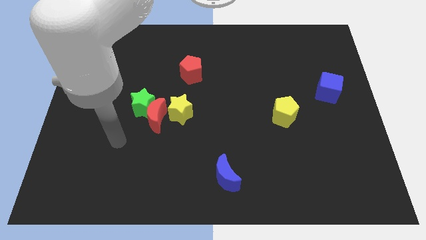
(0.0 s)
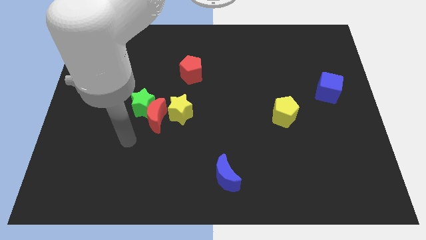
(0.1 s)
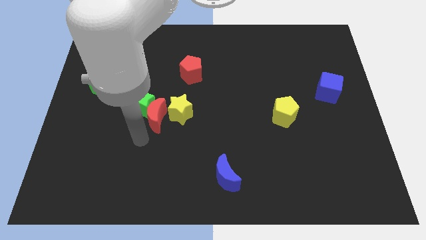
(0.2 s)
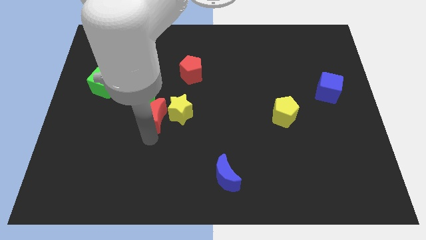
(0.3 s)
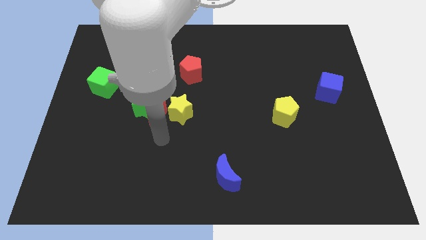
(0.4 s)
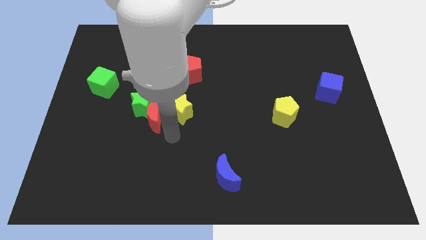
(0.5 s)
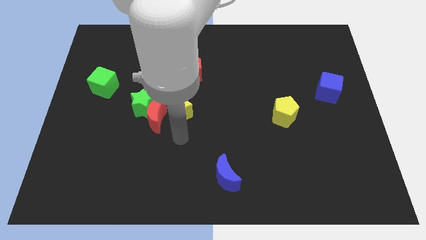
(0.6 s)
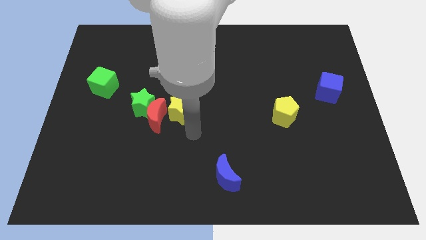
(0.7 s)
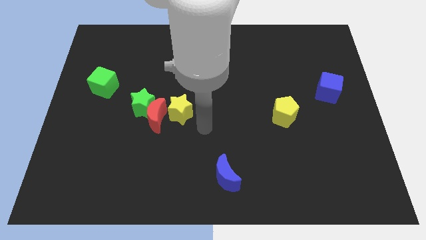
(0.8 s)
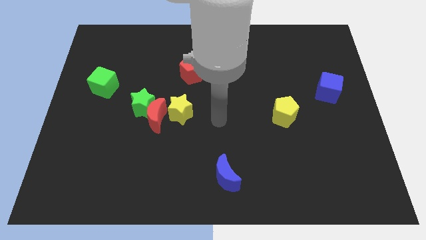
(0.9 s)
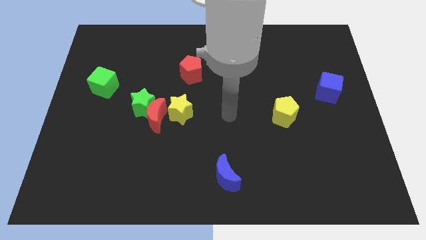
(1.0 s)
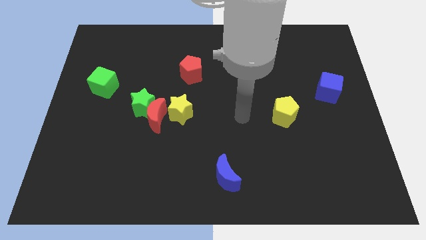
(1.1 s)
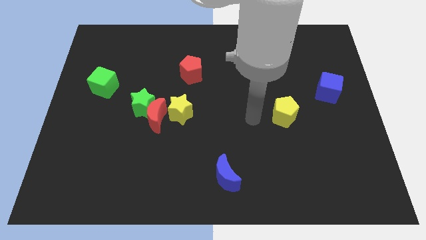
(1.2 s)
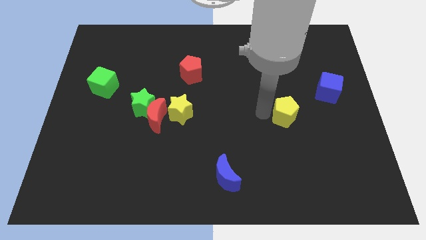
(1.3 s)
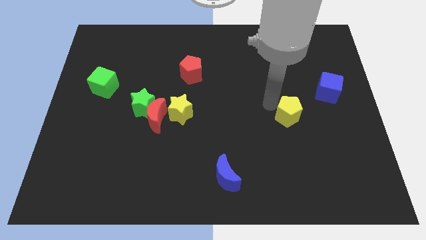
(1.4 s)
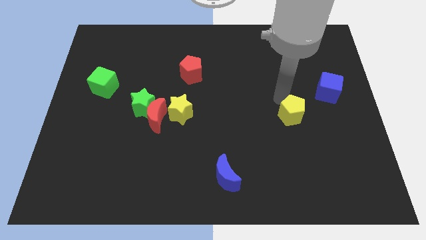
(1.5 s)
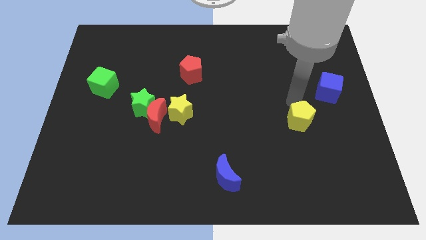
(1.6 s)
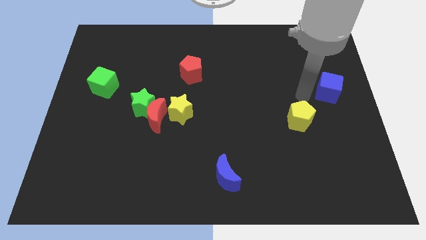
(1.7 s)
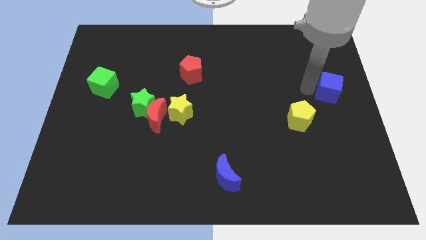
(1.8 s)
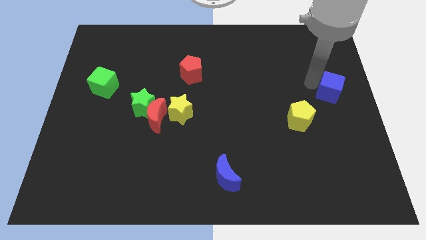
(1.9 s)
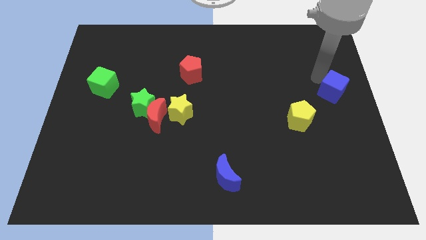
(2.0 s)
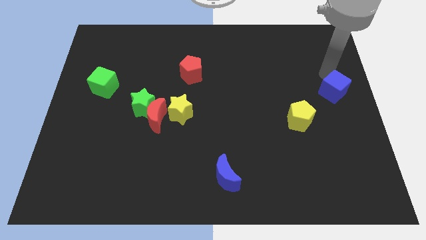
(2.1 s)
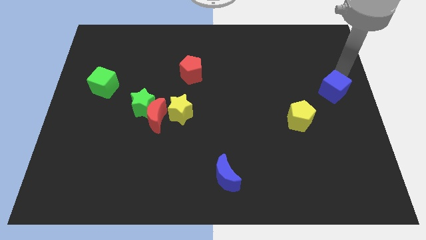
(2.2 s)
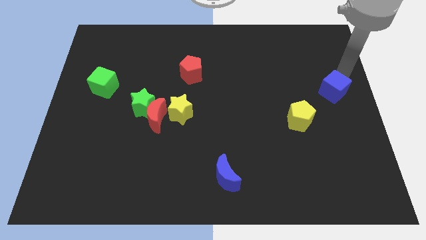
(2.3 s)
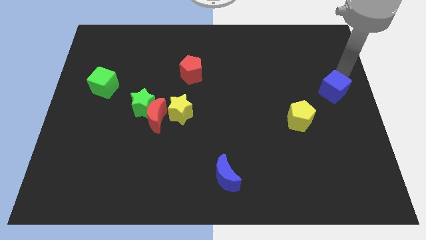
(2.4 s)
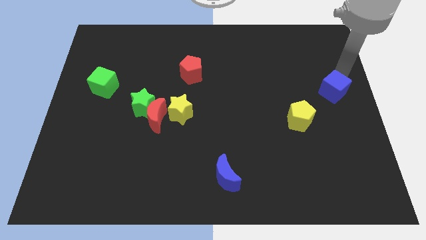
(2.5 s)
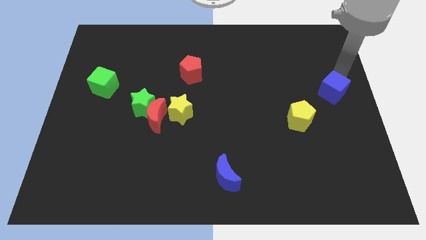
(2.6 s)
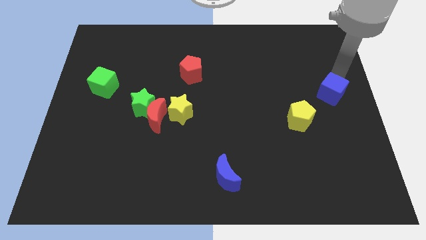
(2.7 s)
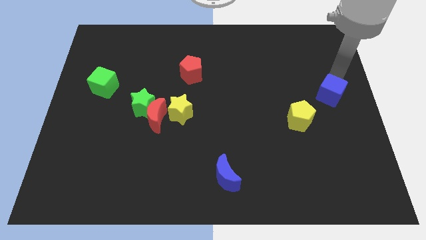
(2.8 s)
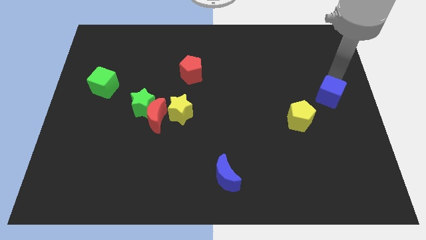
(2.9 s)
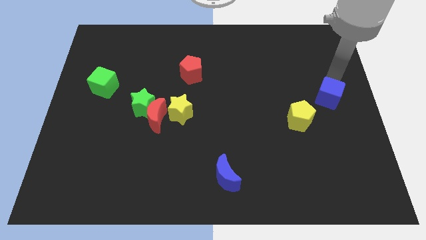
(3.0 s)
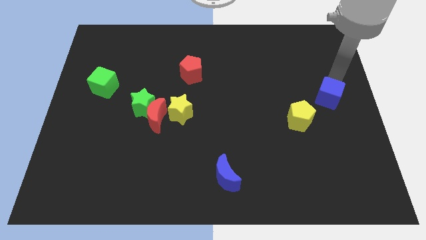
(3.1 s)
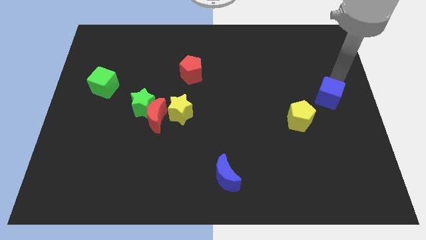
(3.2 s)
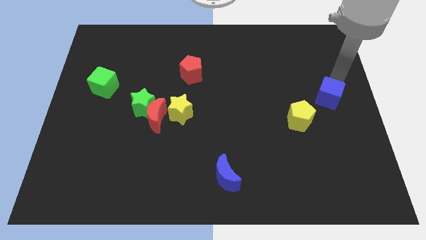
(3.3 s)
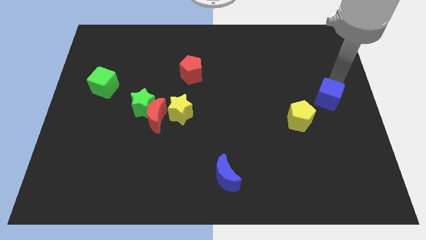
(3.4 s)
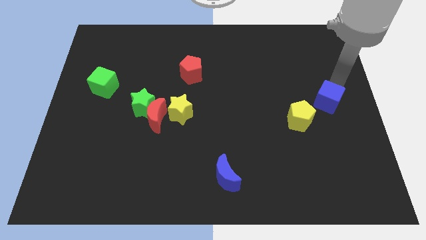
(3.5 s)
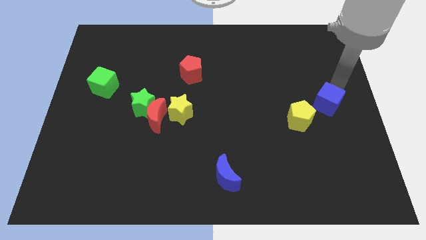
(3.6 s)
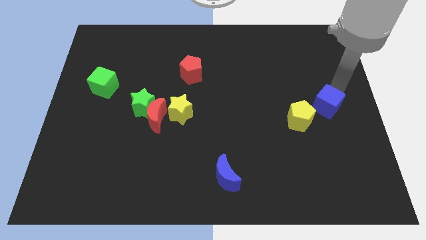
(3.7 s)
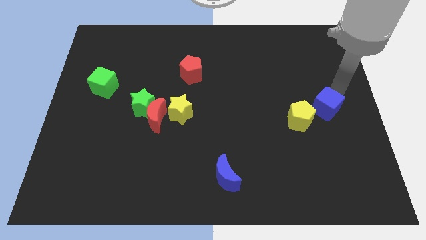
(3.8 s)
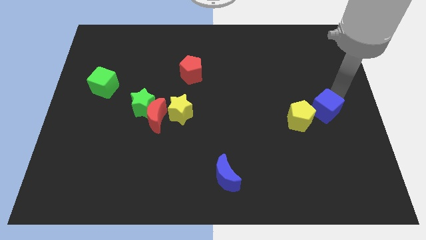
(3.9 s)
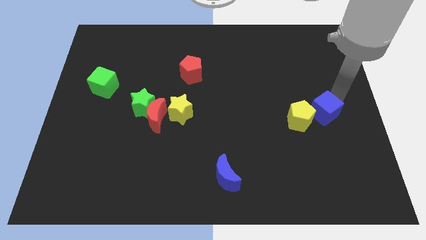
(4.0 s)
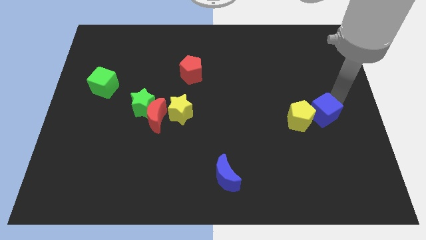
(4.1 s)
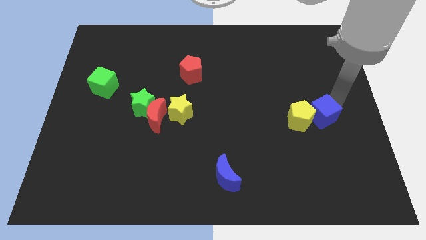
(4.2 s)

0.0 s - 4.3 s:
slightly slide the blue cube downwards and to the left

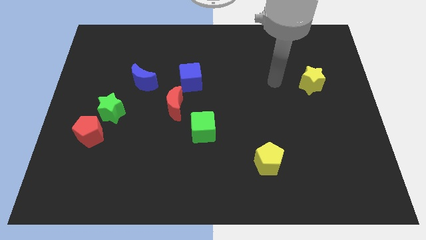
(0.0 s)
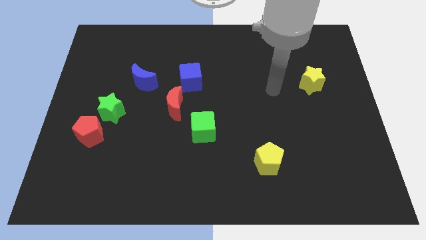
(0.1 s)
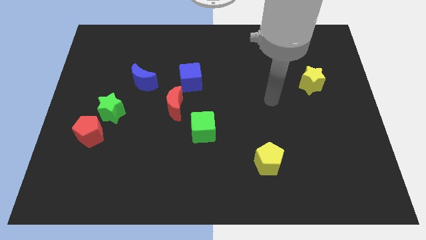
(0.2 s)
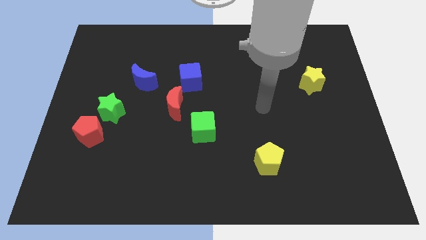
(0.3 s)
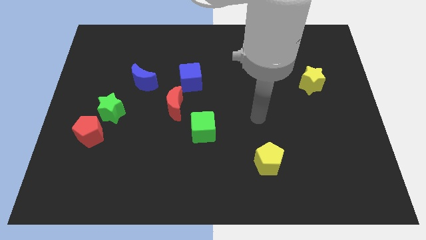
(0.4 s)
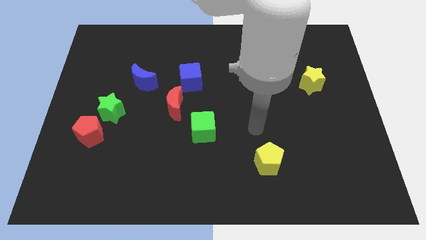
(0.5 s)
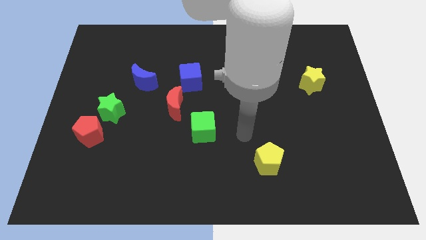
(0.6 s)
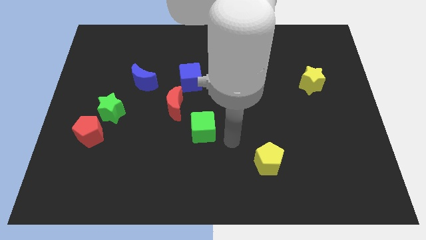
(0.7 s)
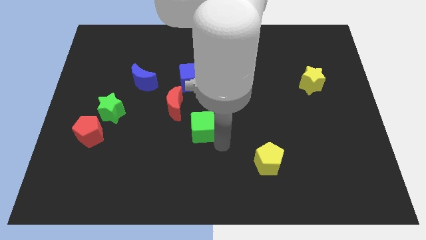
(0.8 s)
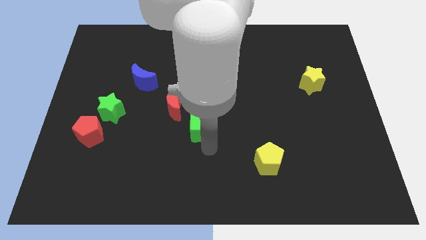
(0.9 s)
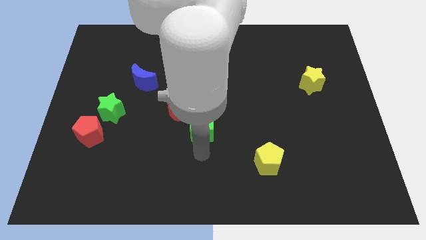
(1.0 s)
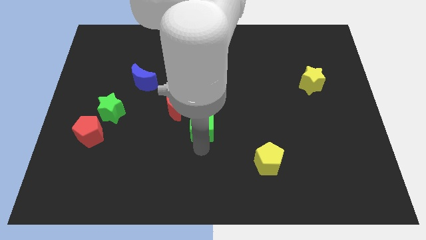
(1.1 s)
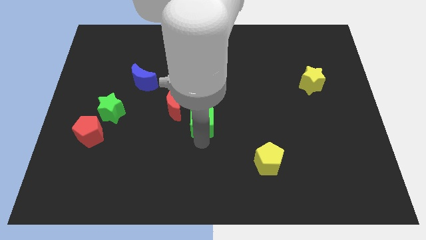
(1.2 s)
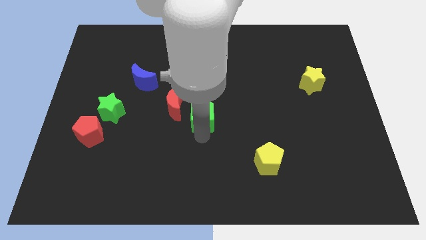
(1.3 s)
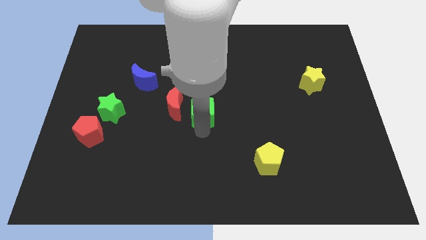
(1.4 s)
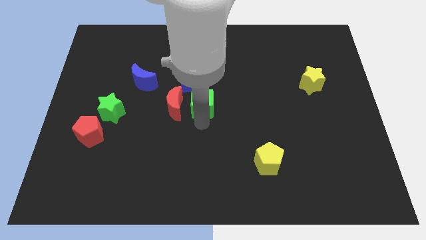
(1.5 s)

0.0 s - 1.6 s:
slightly move the green cube up

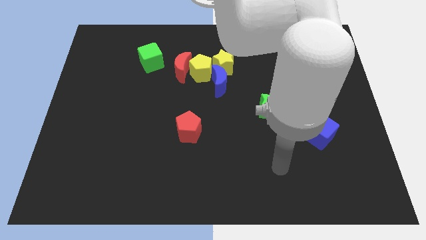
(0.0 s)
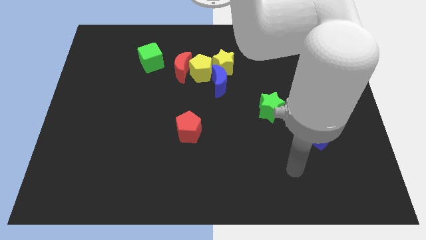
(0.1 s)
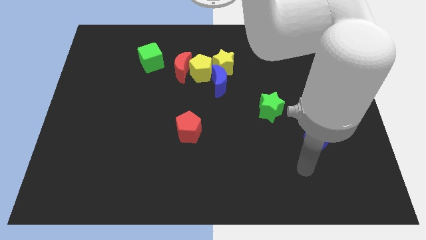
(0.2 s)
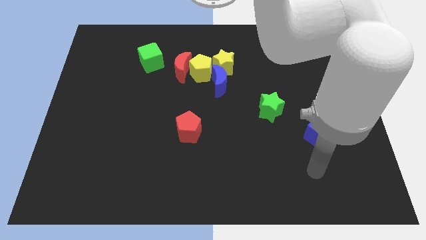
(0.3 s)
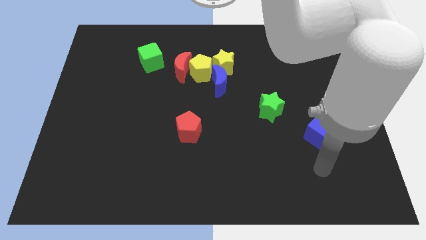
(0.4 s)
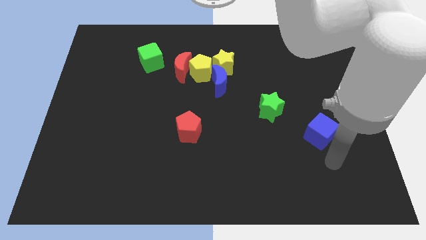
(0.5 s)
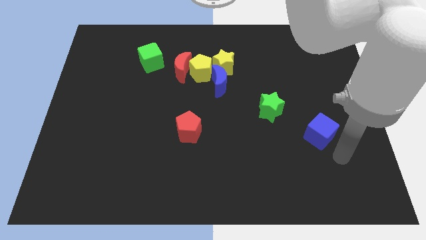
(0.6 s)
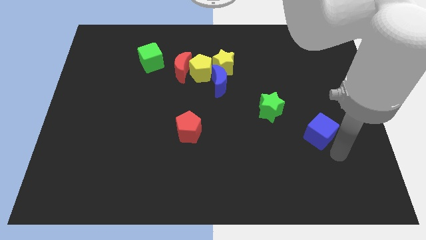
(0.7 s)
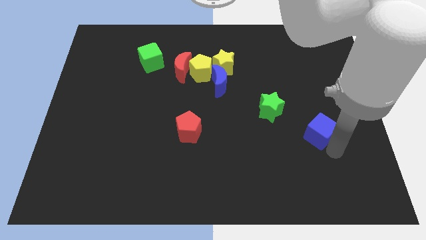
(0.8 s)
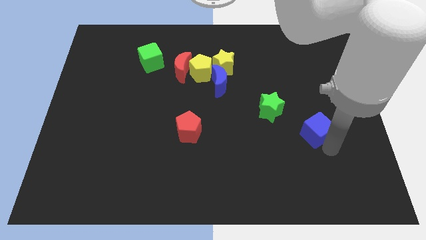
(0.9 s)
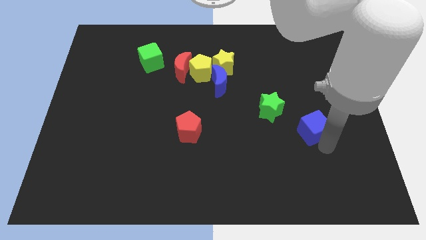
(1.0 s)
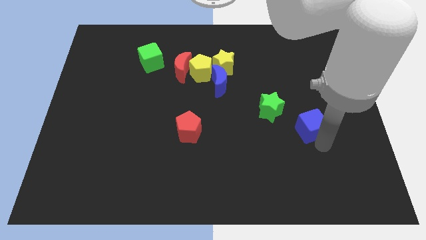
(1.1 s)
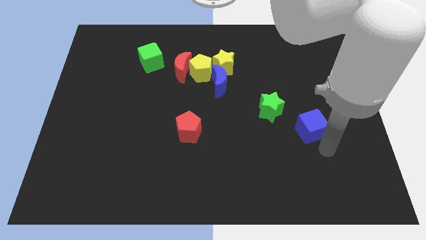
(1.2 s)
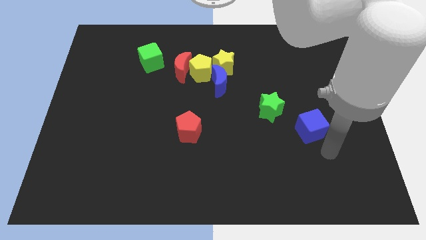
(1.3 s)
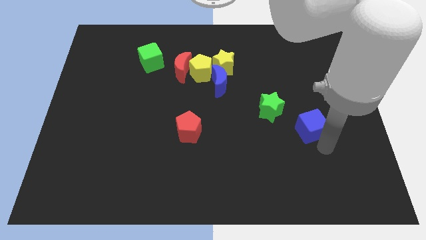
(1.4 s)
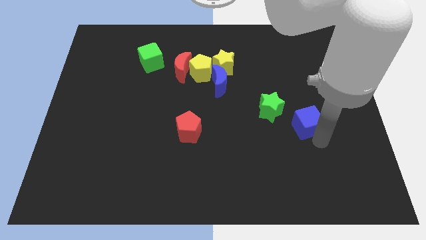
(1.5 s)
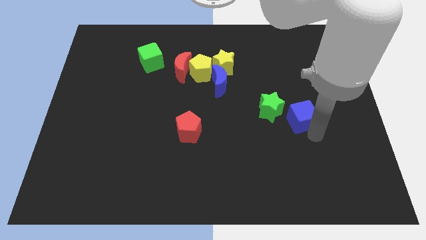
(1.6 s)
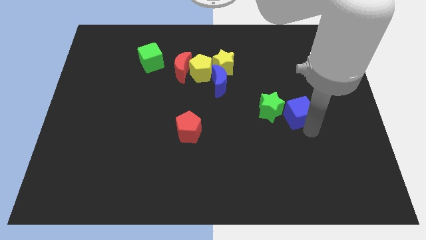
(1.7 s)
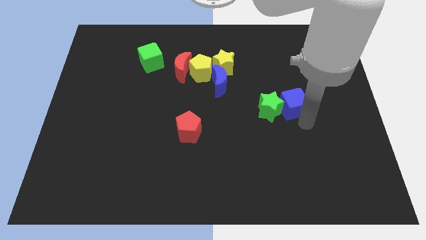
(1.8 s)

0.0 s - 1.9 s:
slide the blue cube a little bit up and left diagonally

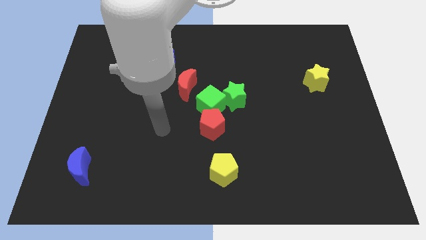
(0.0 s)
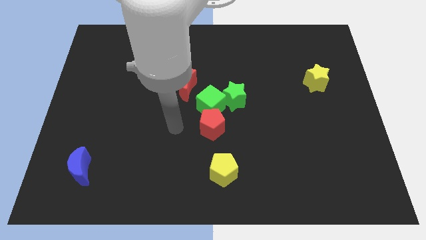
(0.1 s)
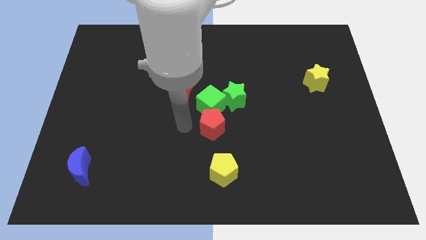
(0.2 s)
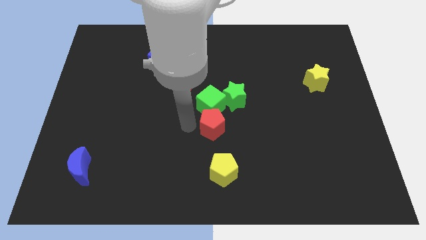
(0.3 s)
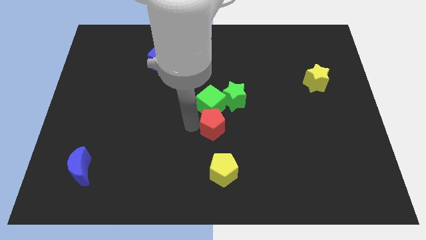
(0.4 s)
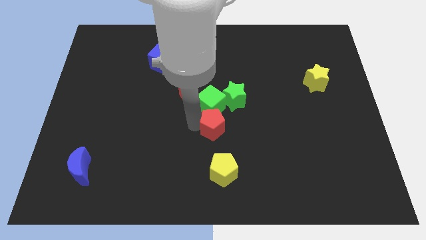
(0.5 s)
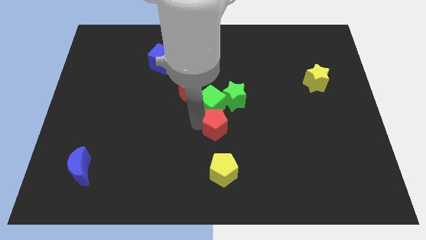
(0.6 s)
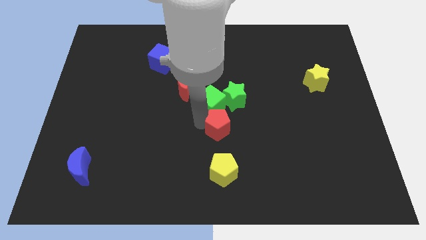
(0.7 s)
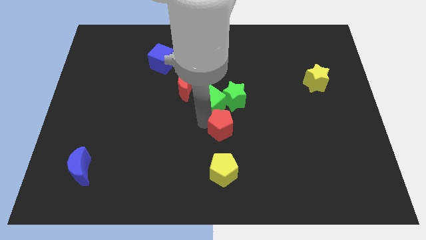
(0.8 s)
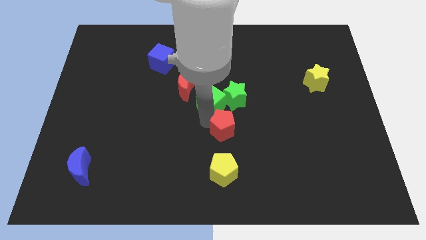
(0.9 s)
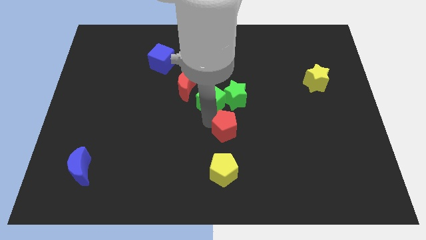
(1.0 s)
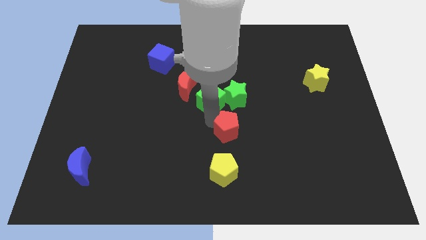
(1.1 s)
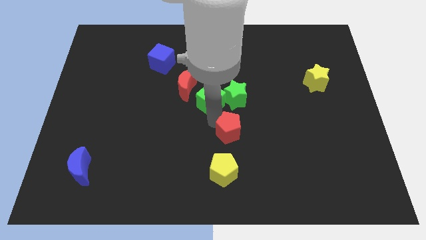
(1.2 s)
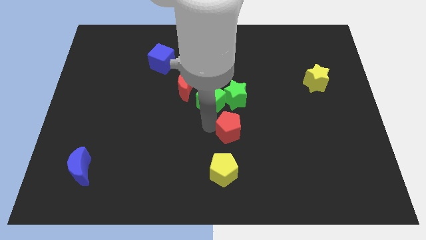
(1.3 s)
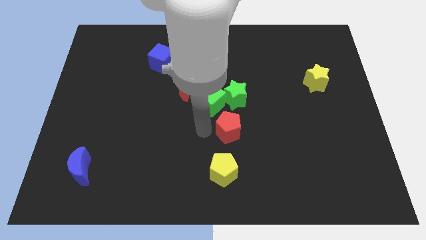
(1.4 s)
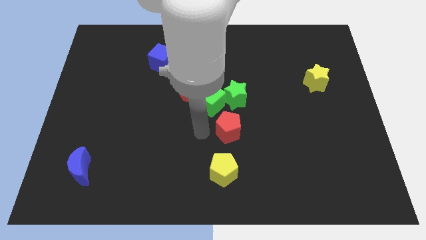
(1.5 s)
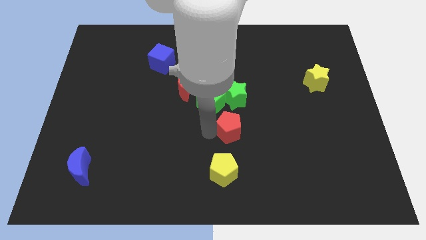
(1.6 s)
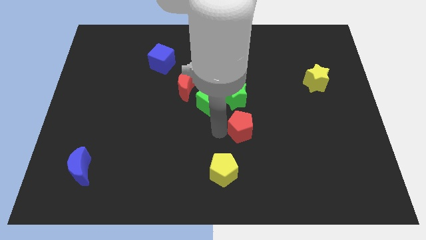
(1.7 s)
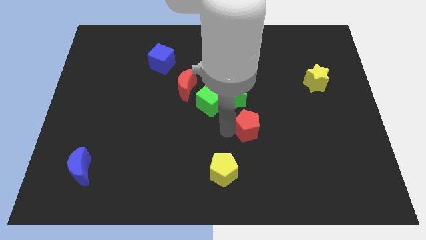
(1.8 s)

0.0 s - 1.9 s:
push the red pentagon to the right a bit
